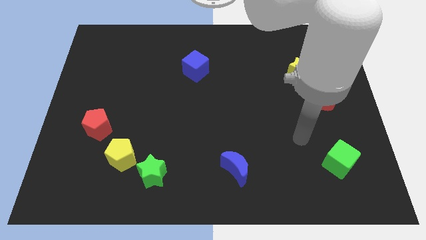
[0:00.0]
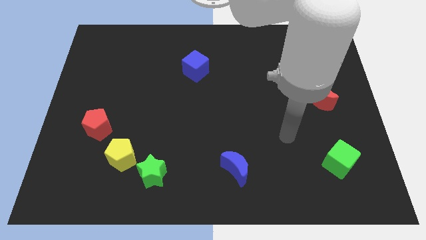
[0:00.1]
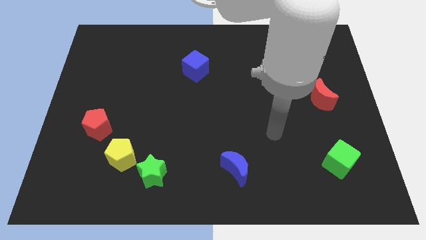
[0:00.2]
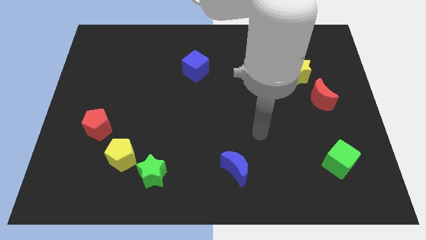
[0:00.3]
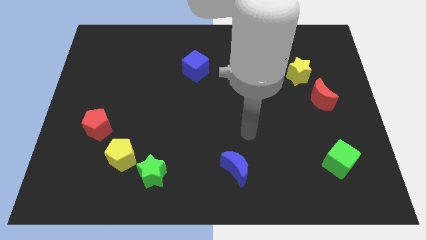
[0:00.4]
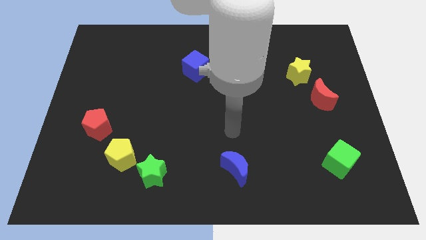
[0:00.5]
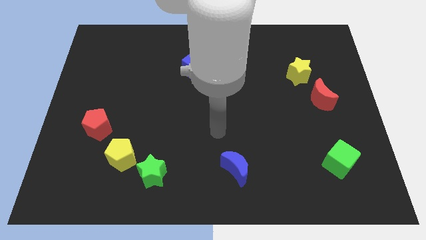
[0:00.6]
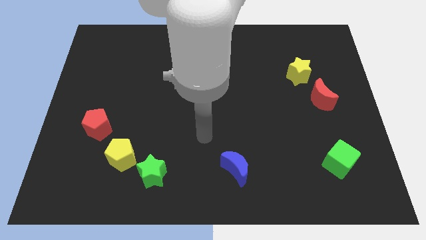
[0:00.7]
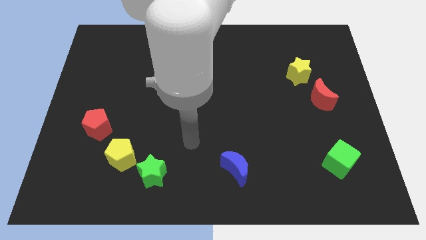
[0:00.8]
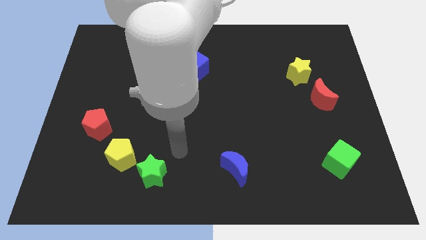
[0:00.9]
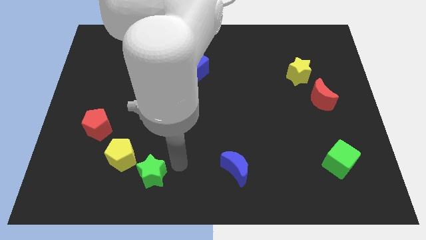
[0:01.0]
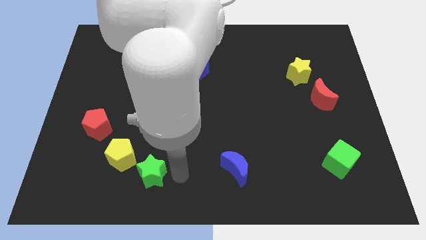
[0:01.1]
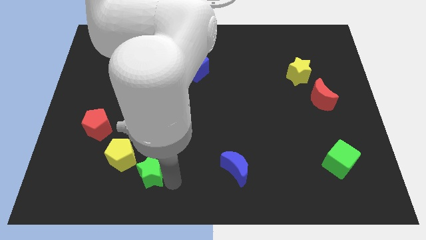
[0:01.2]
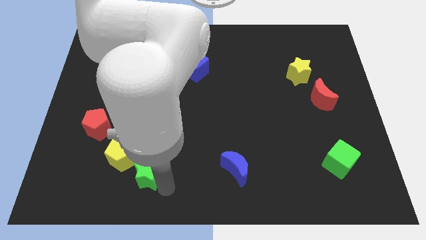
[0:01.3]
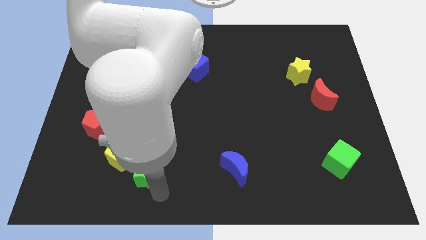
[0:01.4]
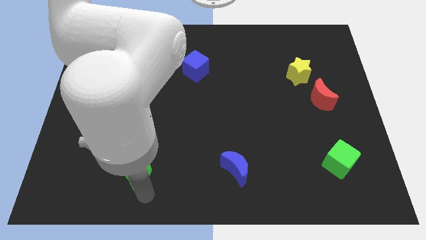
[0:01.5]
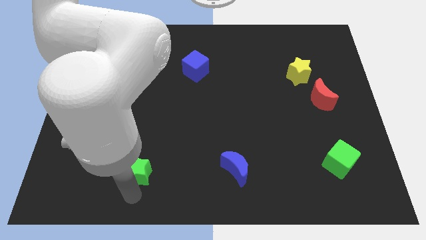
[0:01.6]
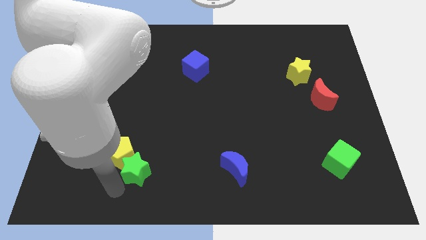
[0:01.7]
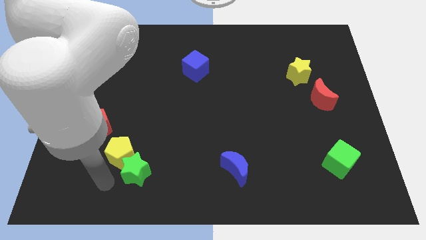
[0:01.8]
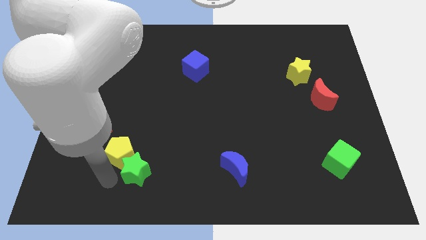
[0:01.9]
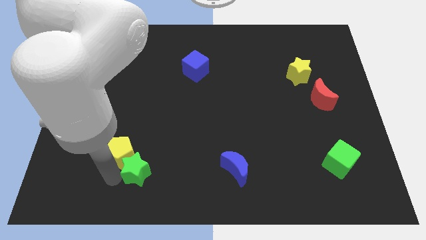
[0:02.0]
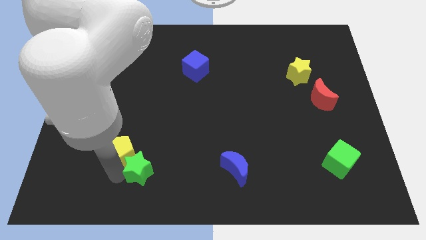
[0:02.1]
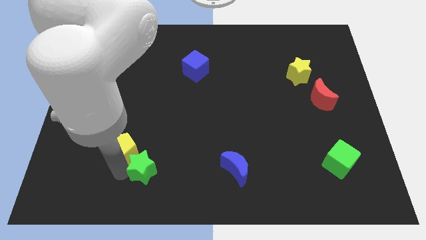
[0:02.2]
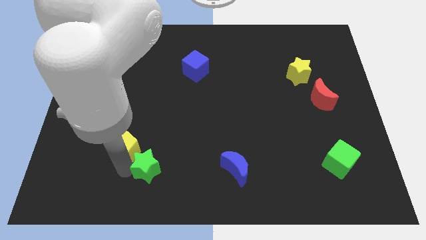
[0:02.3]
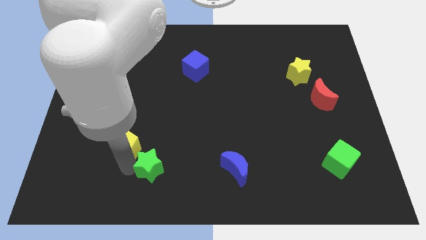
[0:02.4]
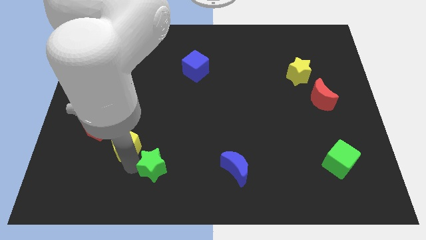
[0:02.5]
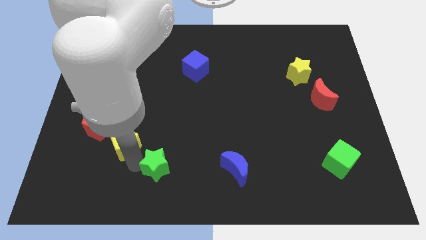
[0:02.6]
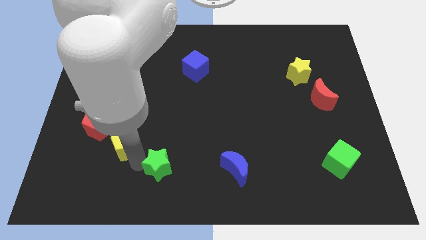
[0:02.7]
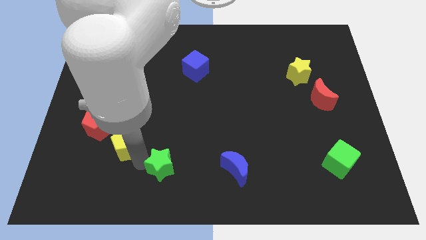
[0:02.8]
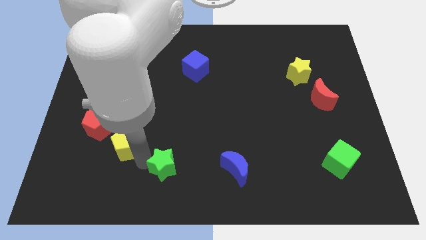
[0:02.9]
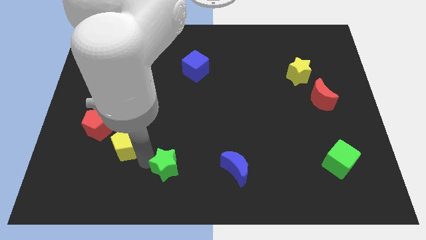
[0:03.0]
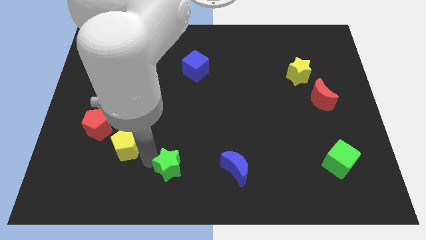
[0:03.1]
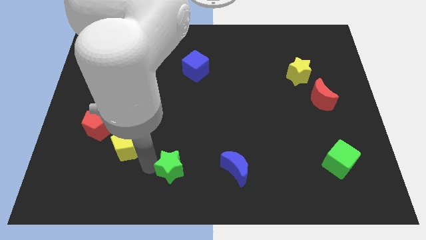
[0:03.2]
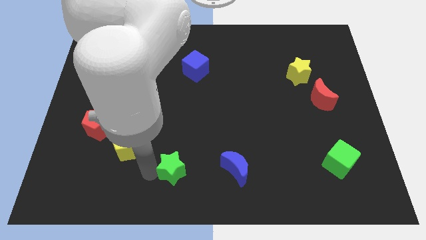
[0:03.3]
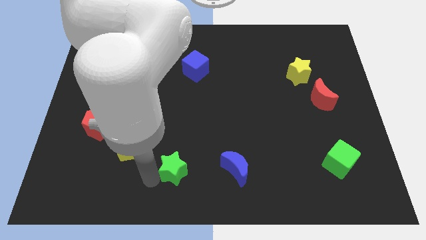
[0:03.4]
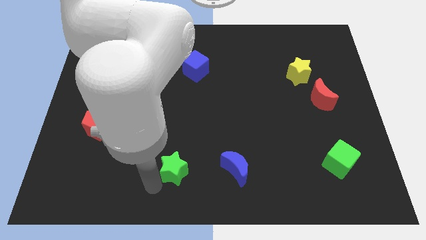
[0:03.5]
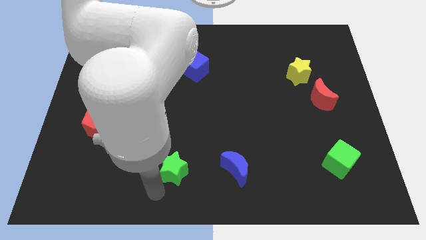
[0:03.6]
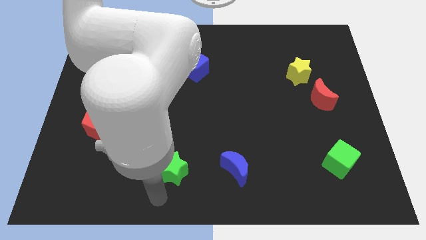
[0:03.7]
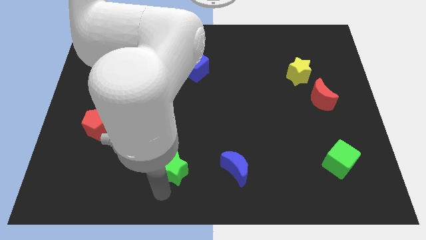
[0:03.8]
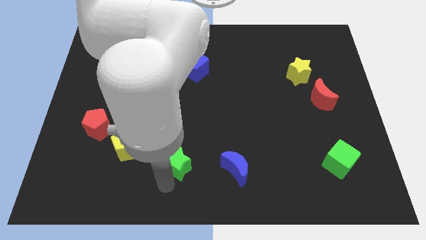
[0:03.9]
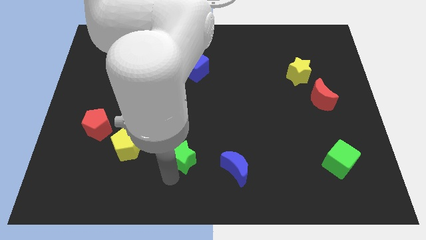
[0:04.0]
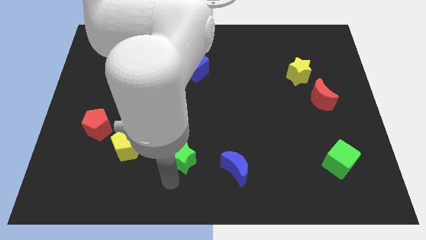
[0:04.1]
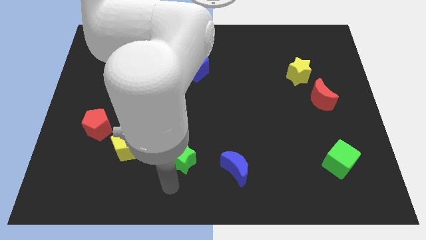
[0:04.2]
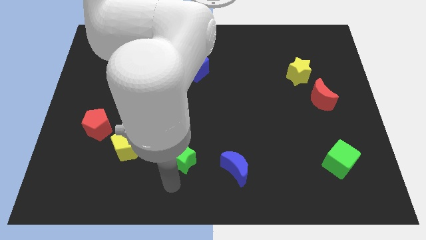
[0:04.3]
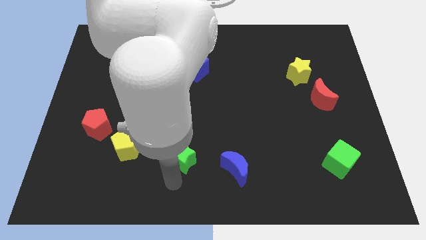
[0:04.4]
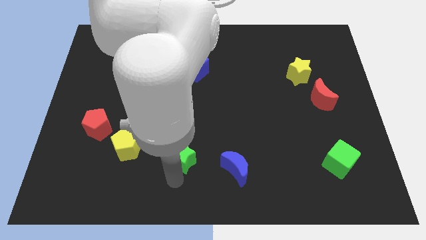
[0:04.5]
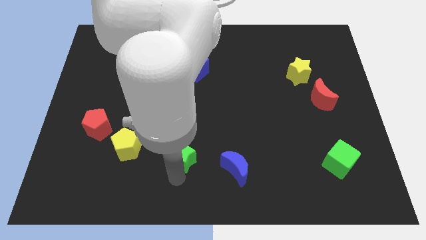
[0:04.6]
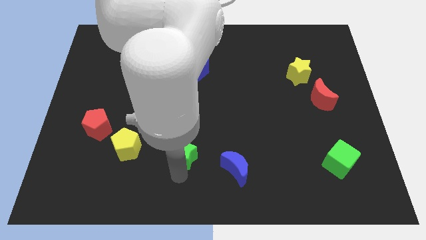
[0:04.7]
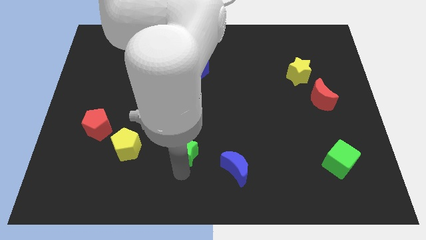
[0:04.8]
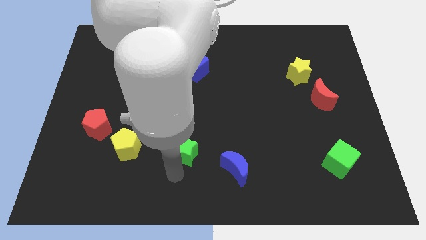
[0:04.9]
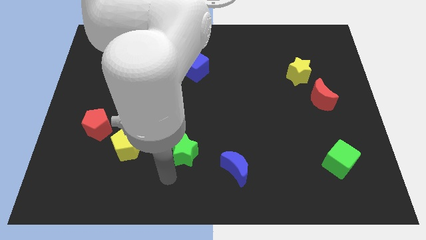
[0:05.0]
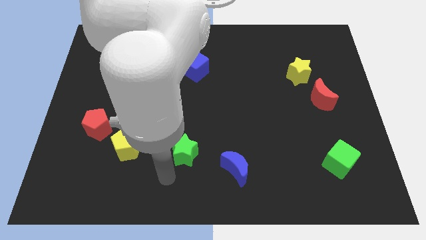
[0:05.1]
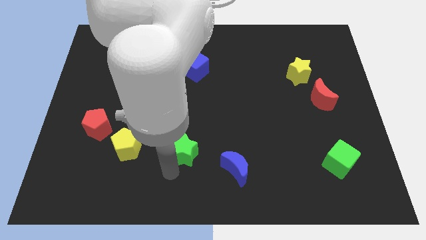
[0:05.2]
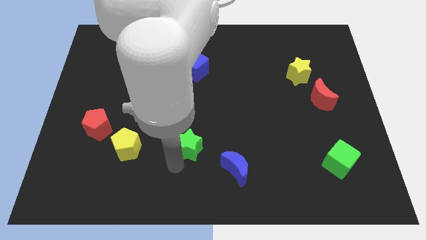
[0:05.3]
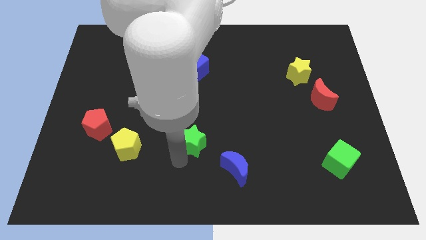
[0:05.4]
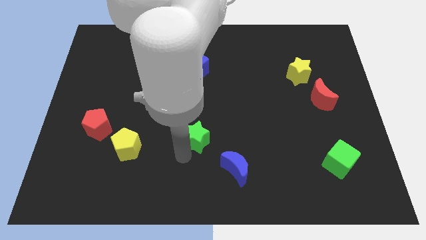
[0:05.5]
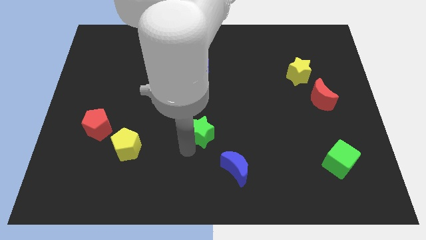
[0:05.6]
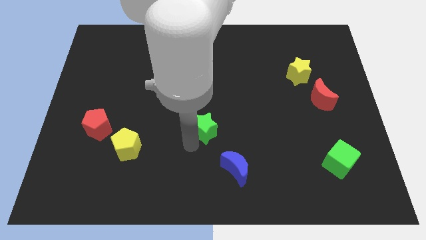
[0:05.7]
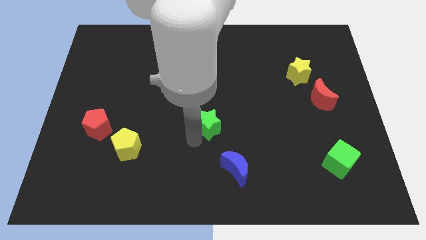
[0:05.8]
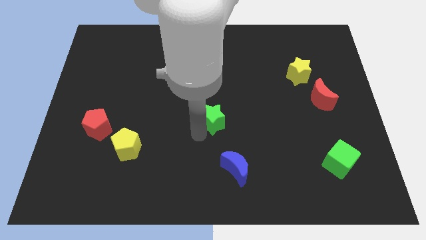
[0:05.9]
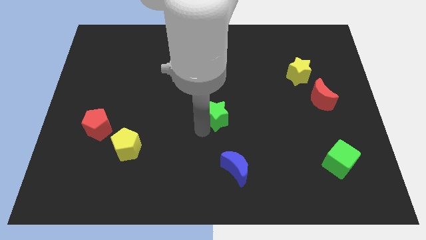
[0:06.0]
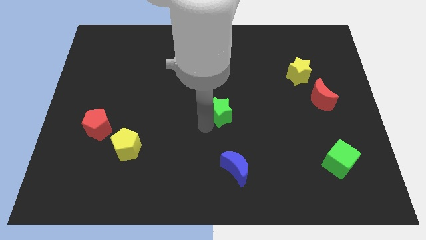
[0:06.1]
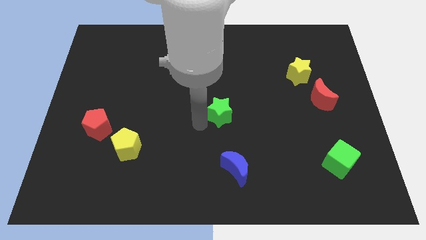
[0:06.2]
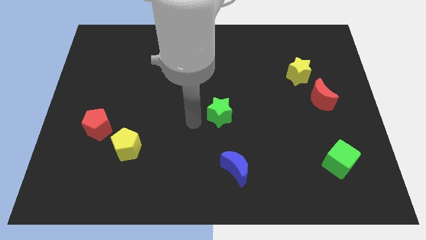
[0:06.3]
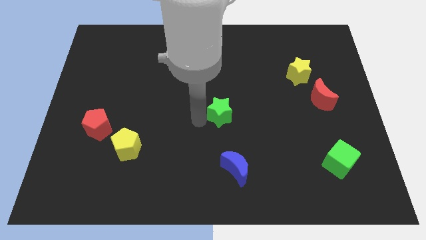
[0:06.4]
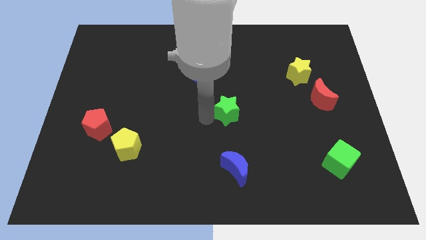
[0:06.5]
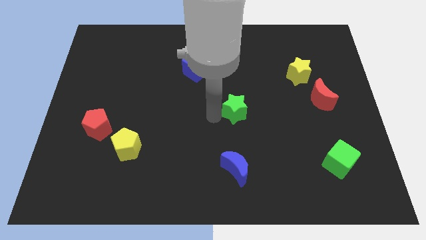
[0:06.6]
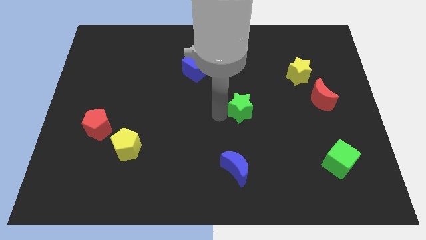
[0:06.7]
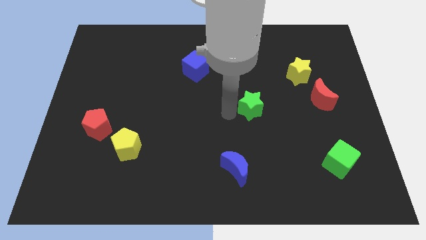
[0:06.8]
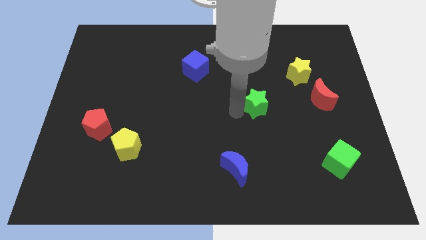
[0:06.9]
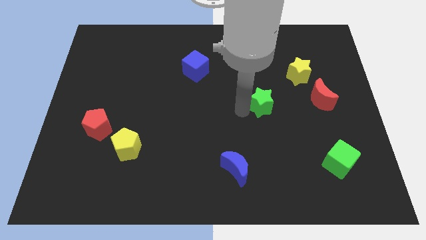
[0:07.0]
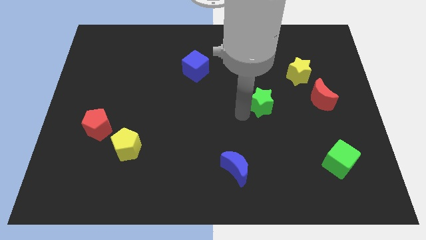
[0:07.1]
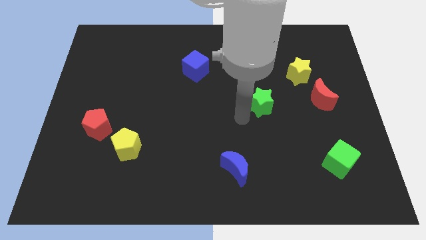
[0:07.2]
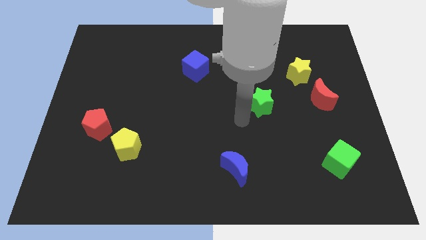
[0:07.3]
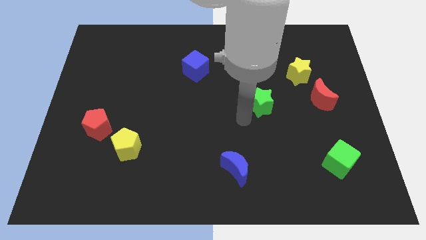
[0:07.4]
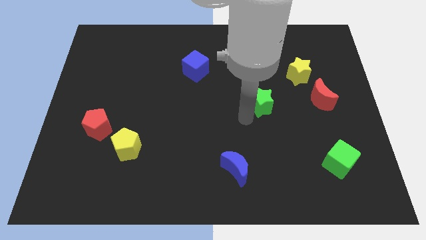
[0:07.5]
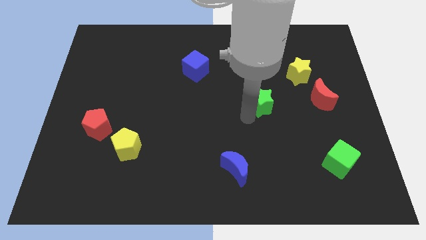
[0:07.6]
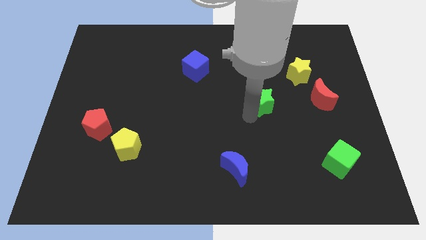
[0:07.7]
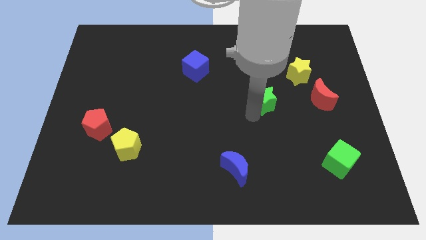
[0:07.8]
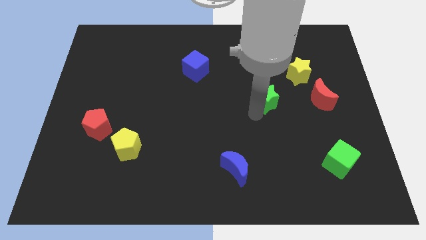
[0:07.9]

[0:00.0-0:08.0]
slide the green star to the bottom left side of the yellow star
